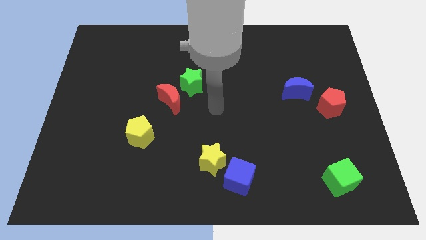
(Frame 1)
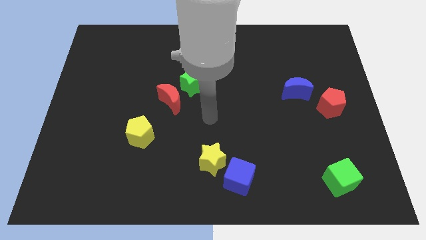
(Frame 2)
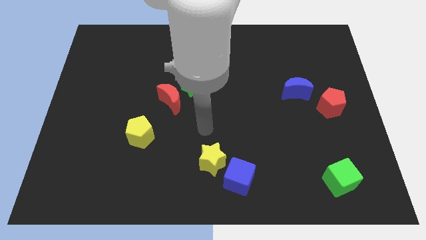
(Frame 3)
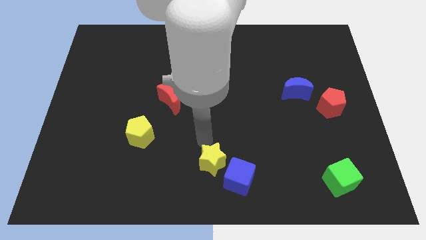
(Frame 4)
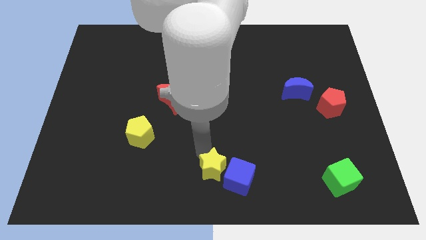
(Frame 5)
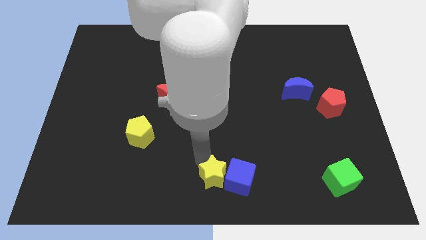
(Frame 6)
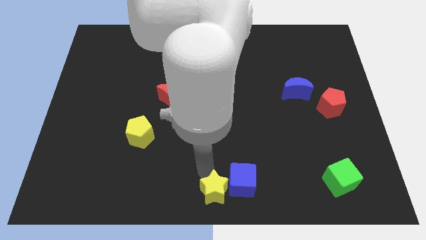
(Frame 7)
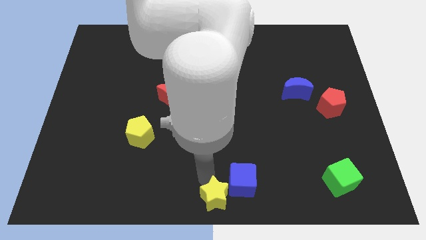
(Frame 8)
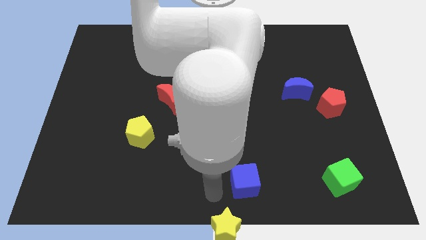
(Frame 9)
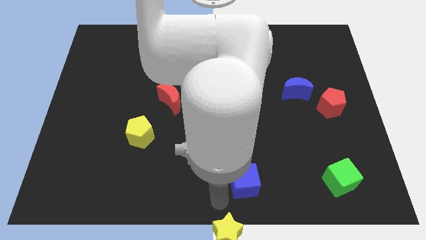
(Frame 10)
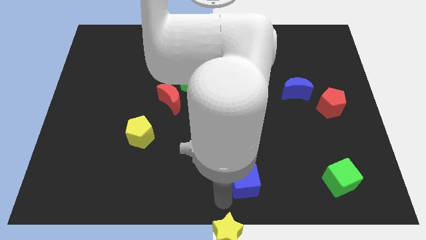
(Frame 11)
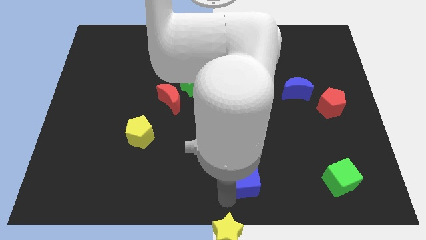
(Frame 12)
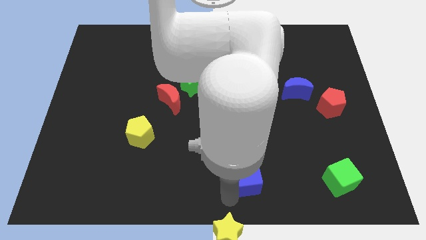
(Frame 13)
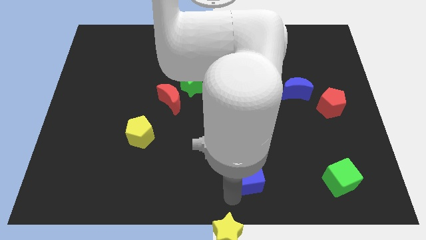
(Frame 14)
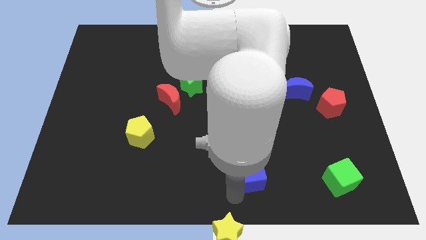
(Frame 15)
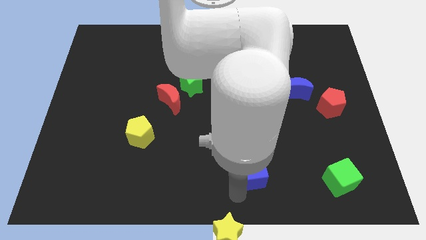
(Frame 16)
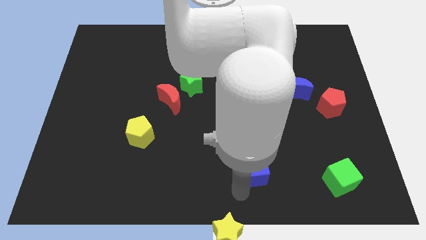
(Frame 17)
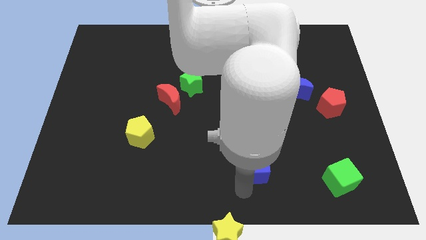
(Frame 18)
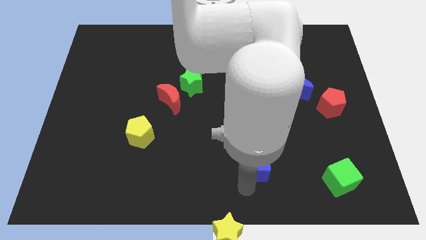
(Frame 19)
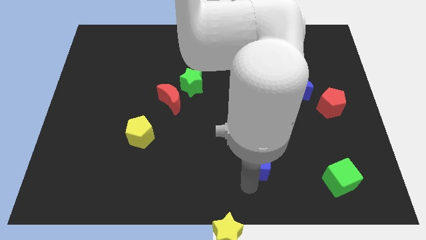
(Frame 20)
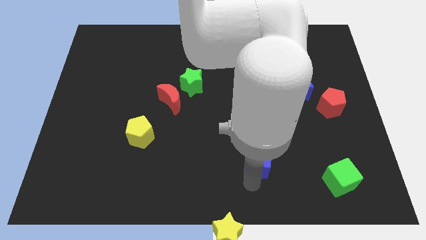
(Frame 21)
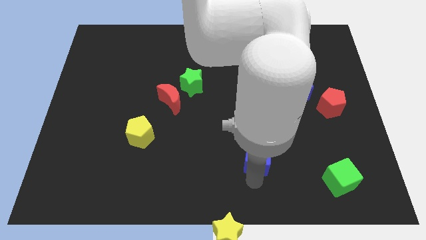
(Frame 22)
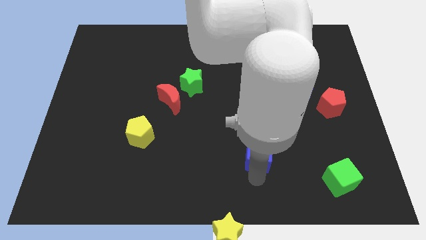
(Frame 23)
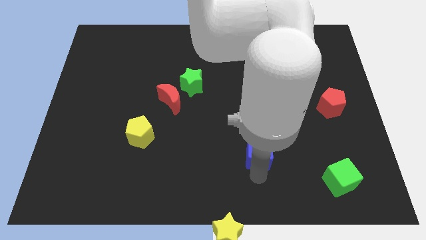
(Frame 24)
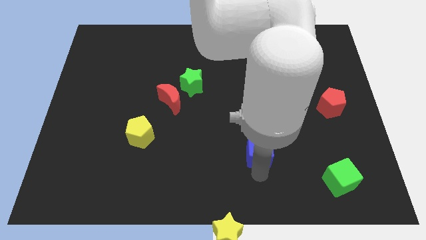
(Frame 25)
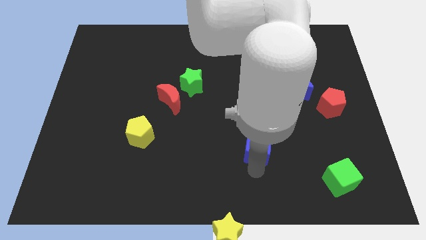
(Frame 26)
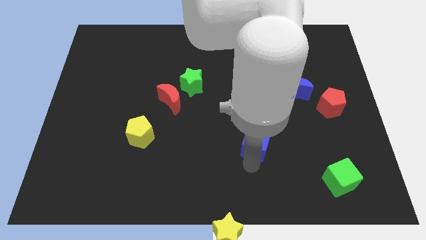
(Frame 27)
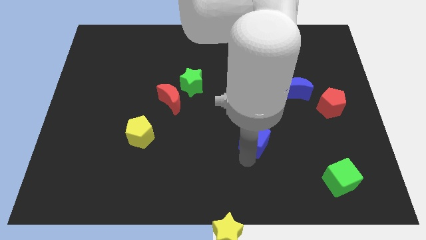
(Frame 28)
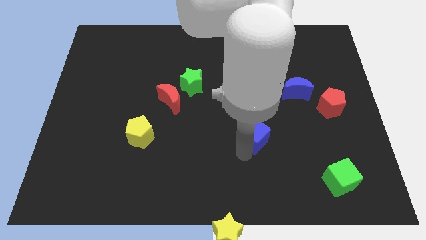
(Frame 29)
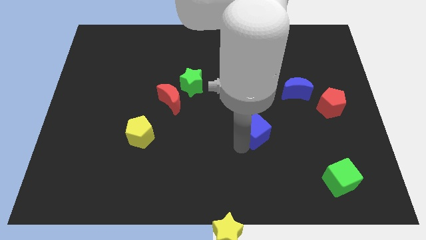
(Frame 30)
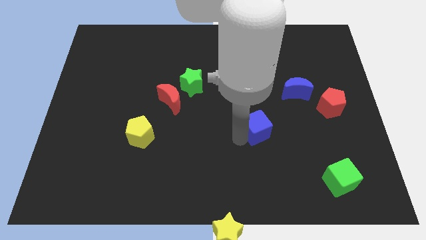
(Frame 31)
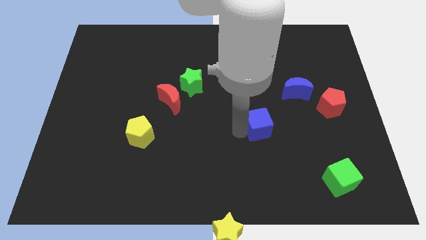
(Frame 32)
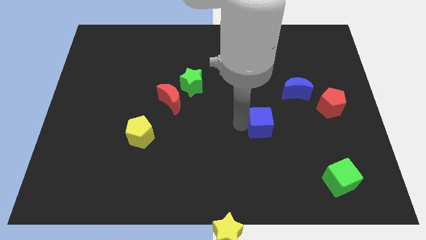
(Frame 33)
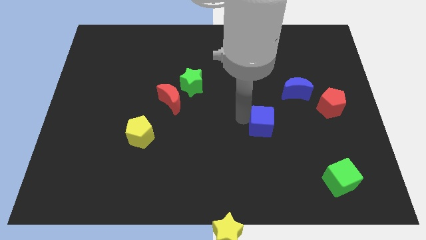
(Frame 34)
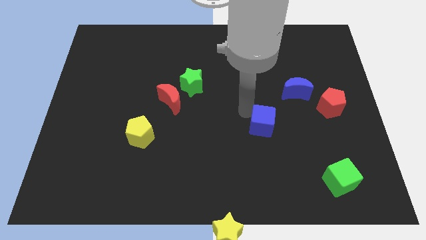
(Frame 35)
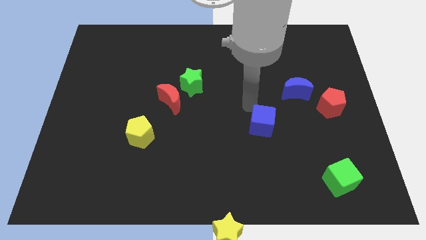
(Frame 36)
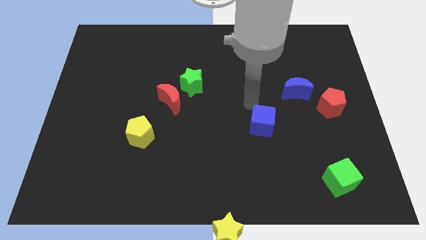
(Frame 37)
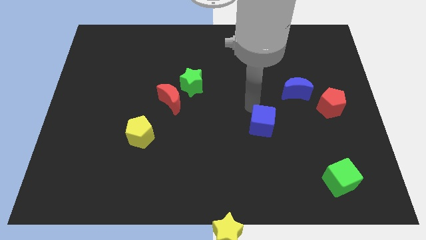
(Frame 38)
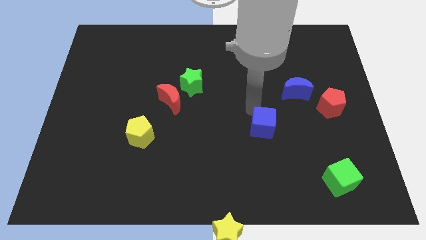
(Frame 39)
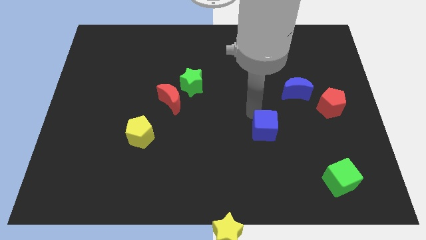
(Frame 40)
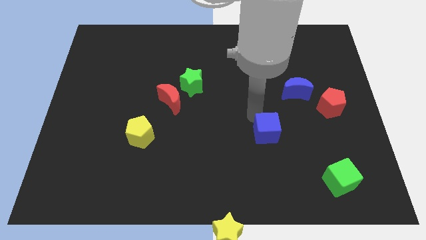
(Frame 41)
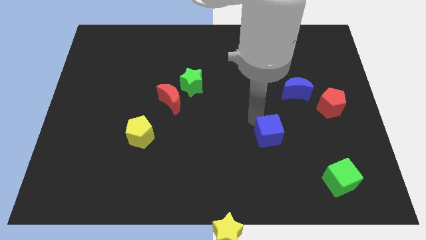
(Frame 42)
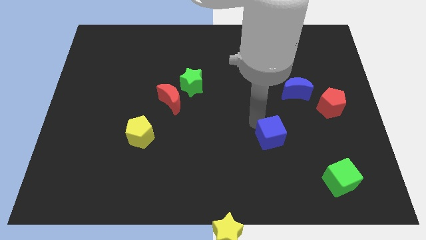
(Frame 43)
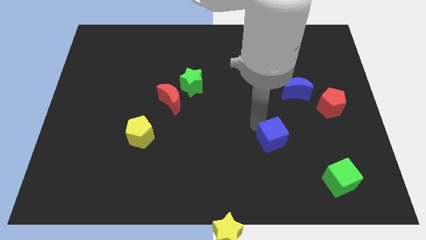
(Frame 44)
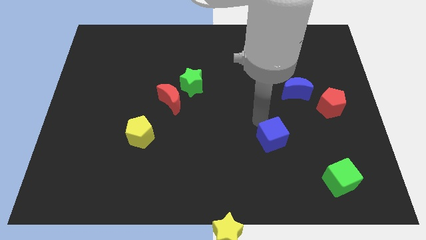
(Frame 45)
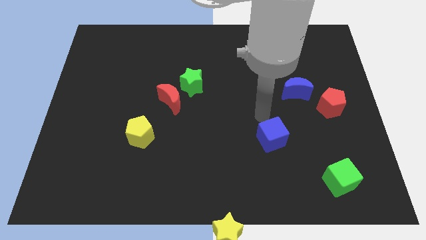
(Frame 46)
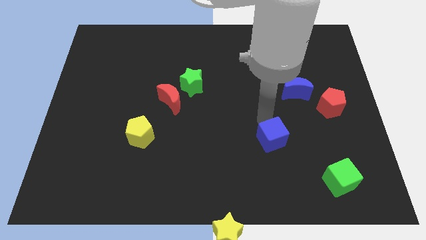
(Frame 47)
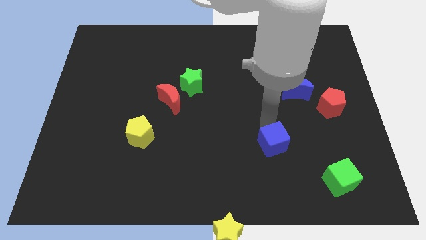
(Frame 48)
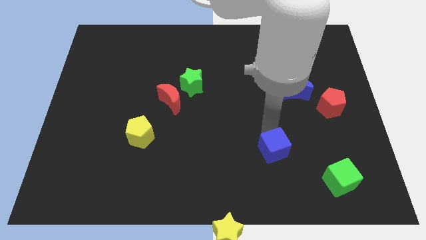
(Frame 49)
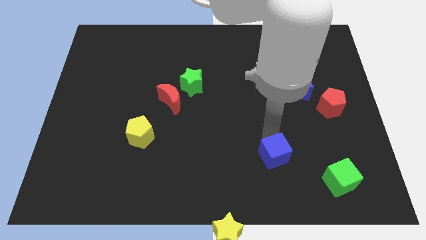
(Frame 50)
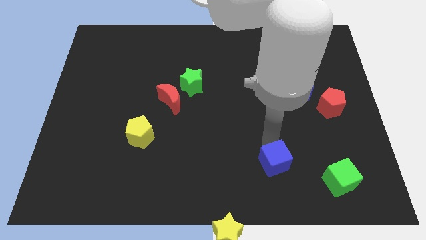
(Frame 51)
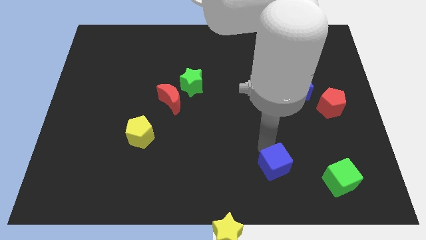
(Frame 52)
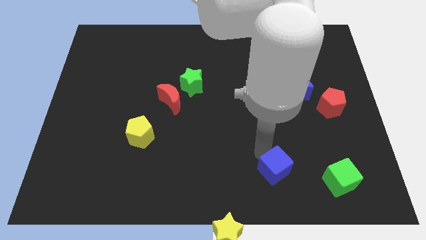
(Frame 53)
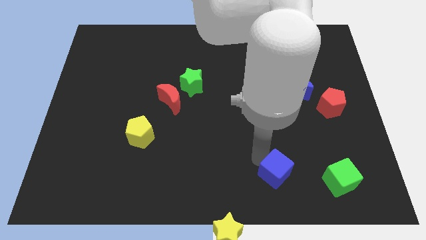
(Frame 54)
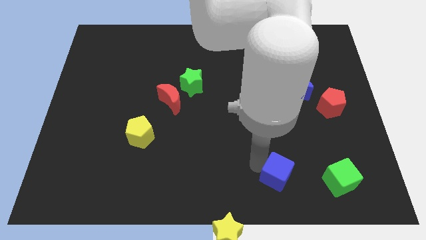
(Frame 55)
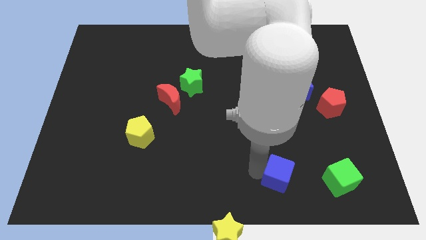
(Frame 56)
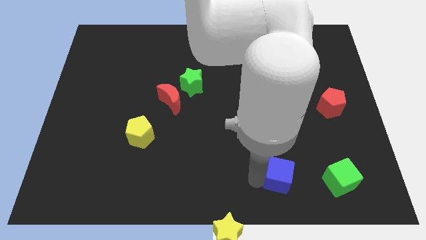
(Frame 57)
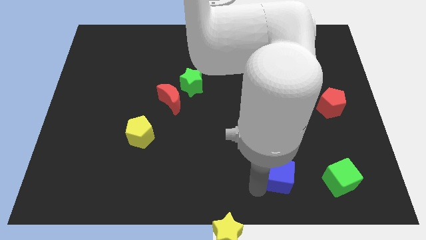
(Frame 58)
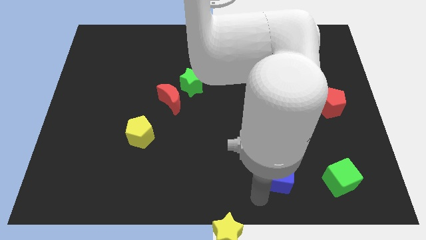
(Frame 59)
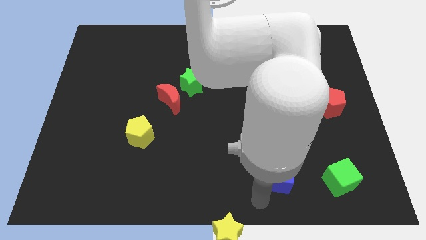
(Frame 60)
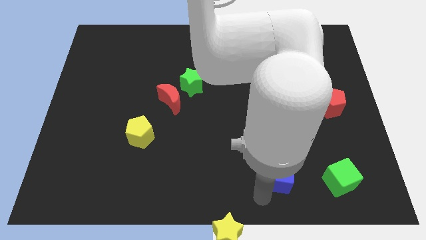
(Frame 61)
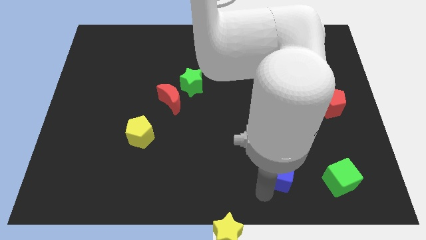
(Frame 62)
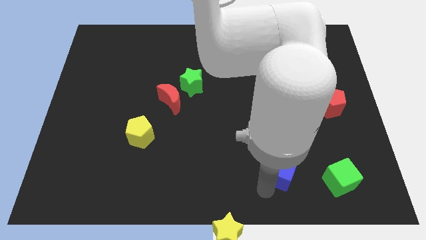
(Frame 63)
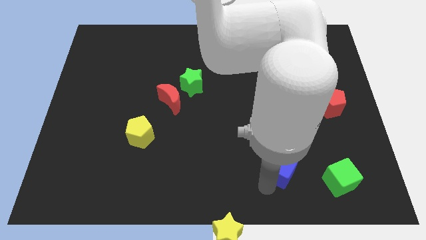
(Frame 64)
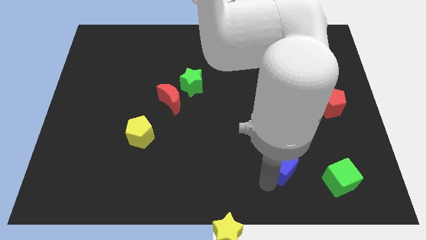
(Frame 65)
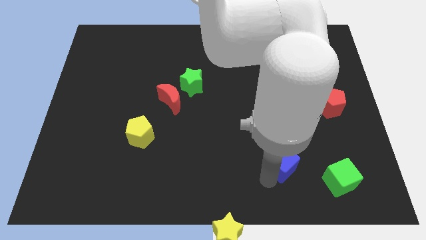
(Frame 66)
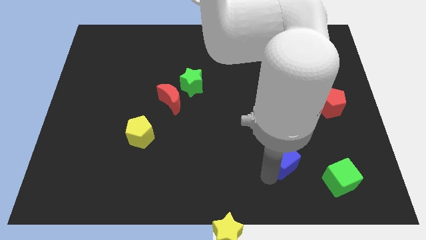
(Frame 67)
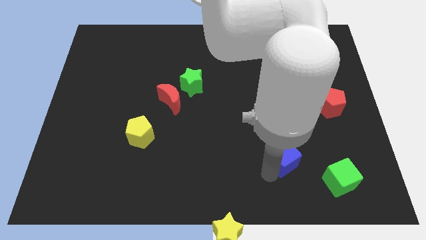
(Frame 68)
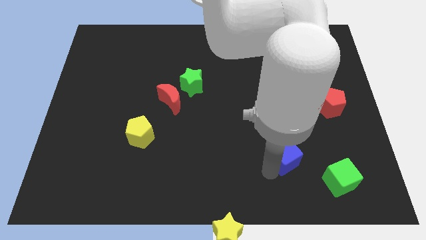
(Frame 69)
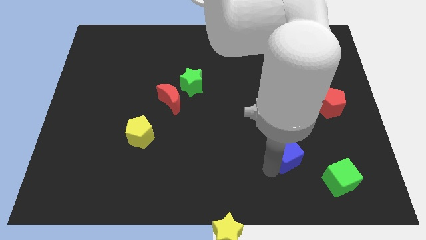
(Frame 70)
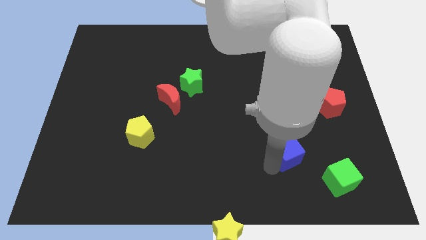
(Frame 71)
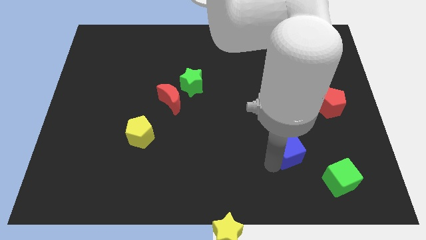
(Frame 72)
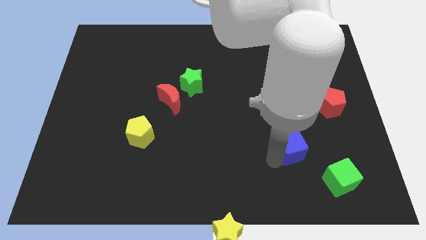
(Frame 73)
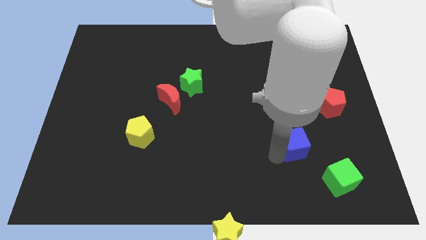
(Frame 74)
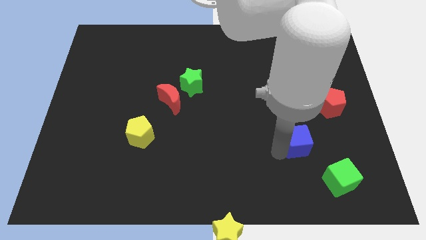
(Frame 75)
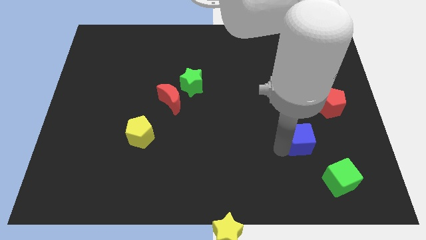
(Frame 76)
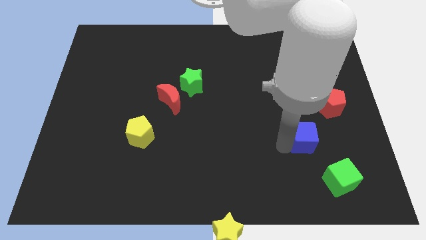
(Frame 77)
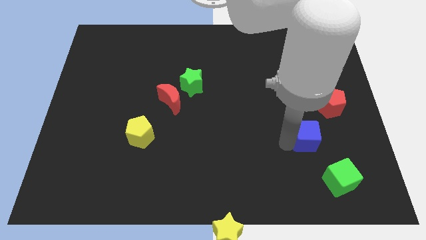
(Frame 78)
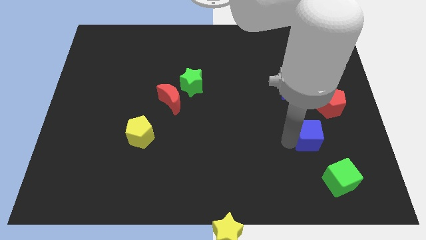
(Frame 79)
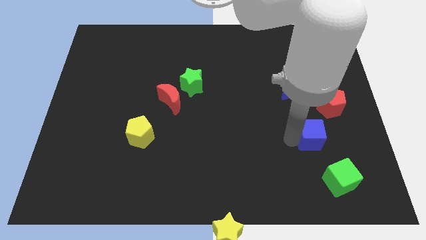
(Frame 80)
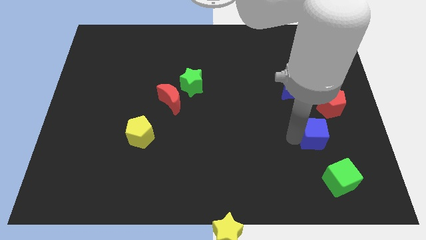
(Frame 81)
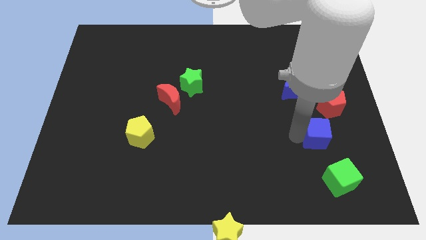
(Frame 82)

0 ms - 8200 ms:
put the blue cube to the bottom side of the red pentagon
